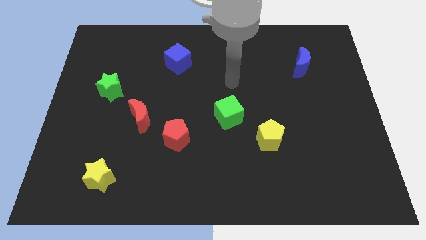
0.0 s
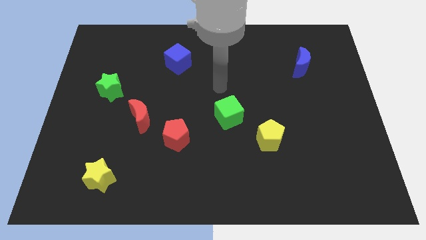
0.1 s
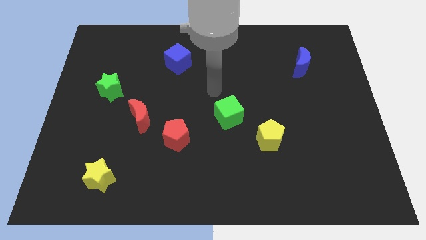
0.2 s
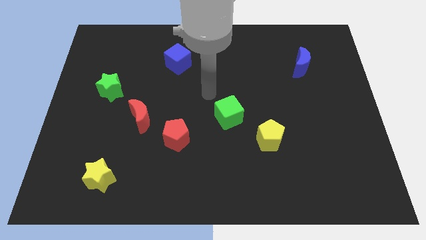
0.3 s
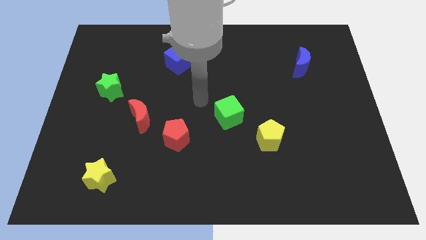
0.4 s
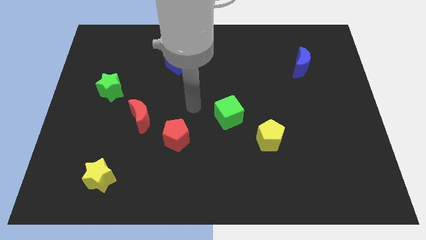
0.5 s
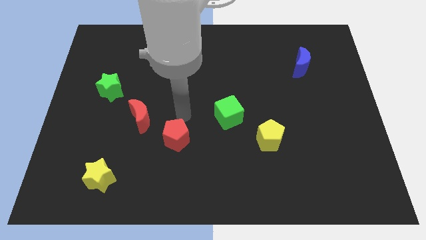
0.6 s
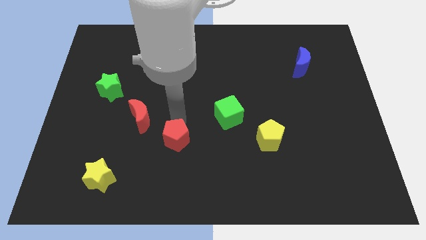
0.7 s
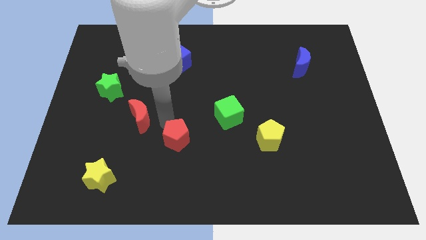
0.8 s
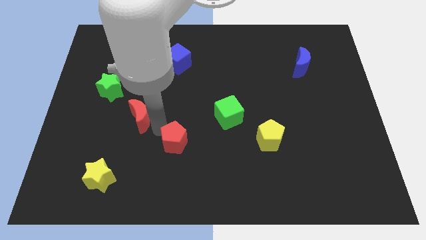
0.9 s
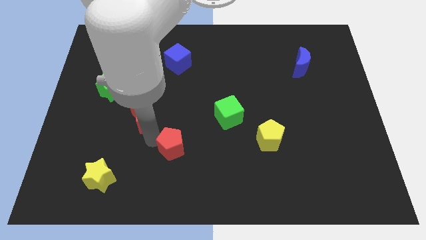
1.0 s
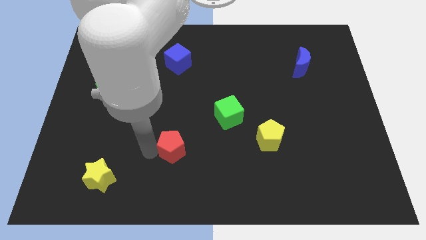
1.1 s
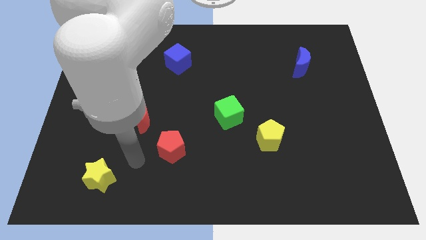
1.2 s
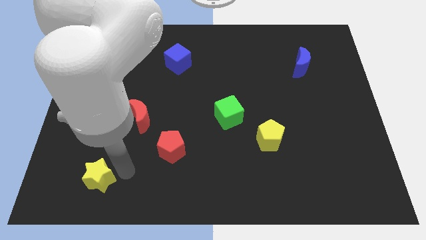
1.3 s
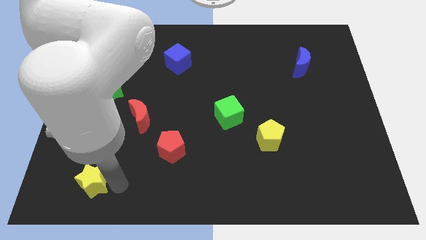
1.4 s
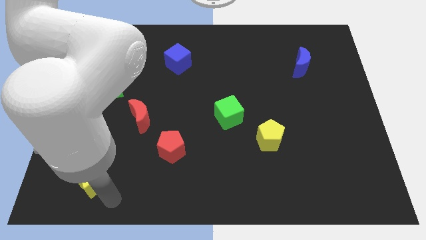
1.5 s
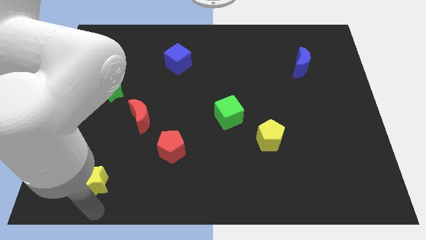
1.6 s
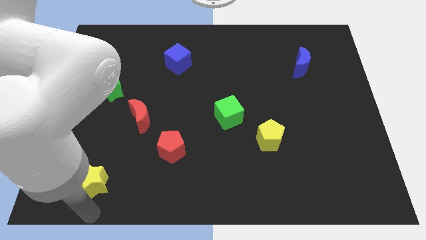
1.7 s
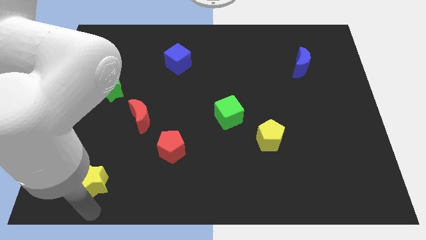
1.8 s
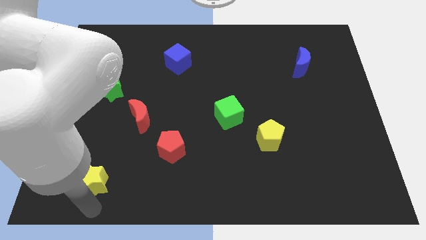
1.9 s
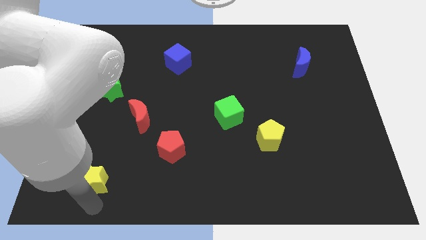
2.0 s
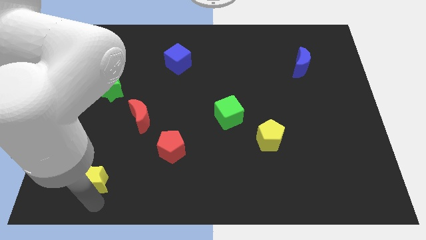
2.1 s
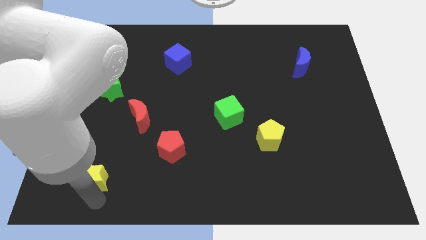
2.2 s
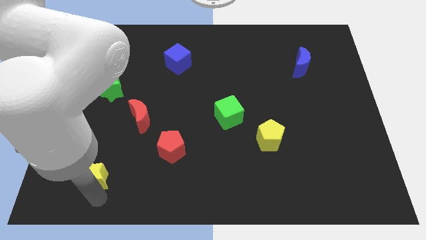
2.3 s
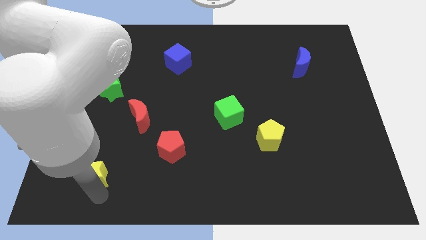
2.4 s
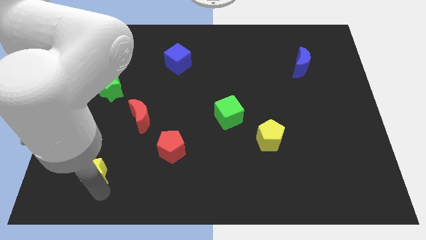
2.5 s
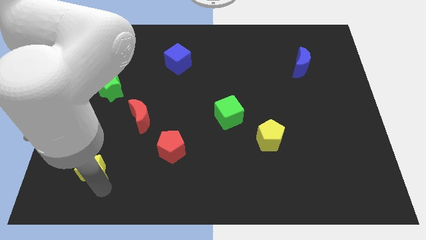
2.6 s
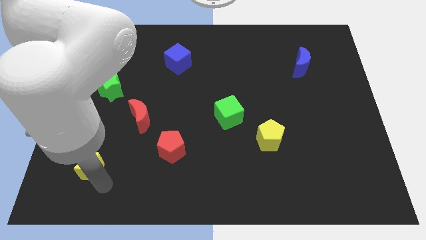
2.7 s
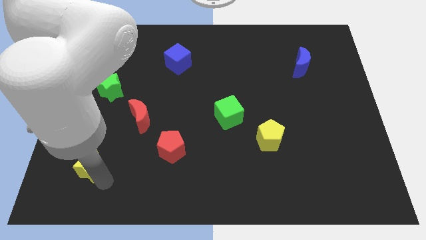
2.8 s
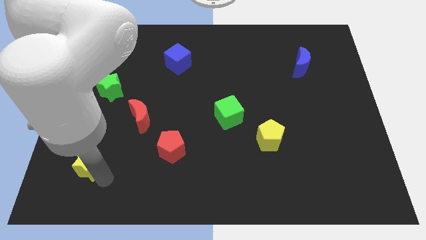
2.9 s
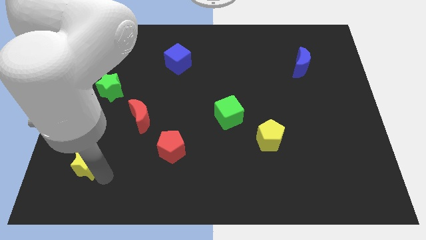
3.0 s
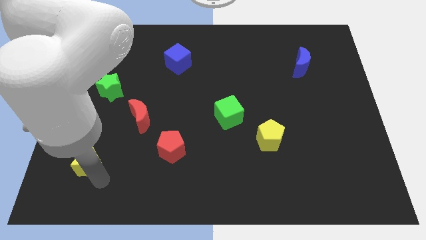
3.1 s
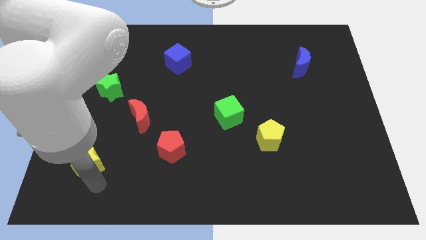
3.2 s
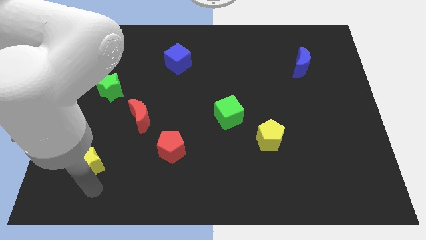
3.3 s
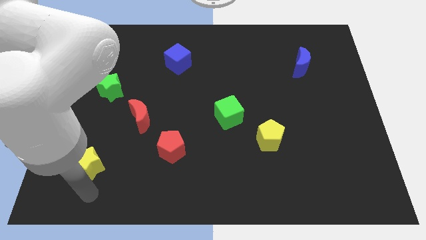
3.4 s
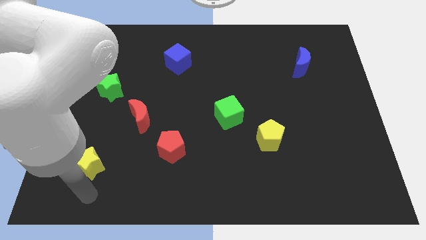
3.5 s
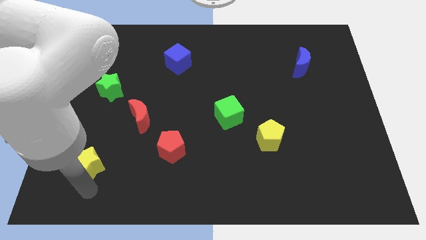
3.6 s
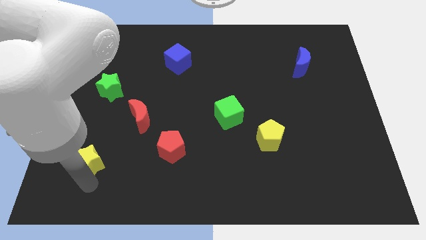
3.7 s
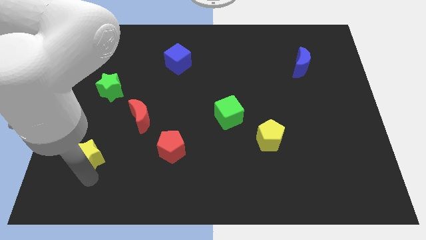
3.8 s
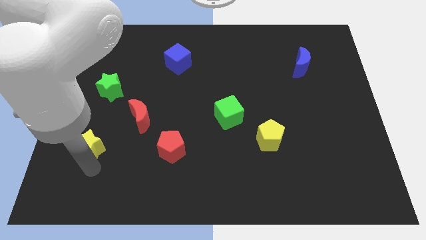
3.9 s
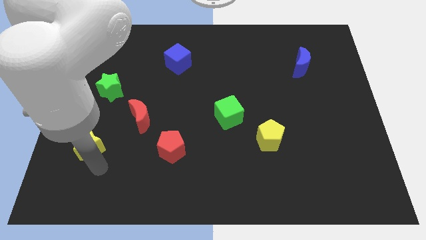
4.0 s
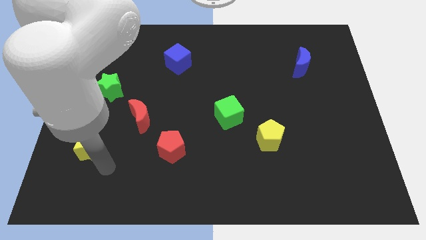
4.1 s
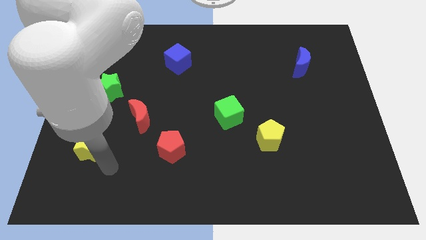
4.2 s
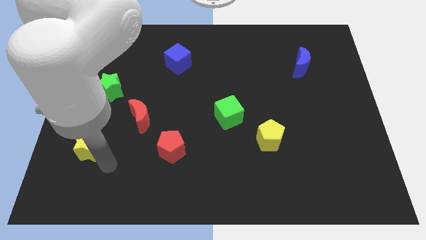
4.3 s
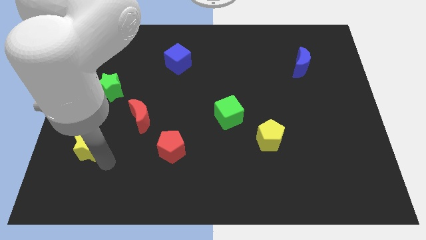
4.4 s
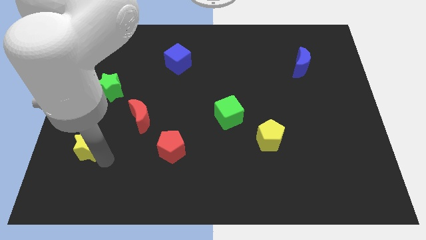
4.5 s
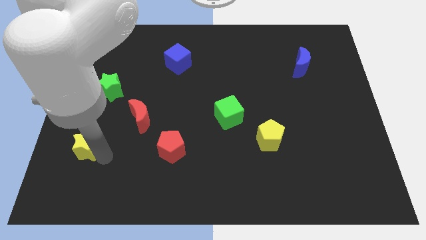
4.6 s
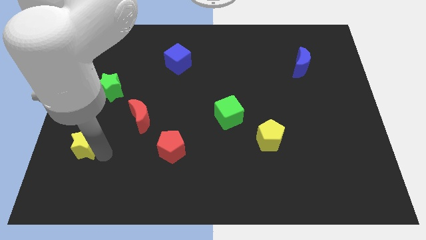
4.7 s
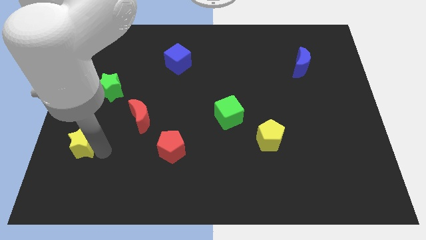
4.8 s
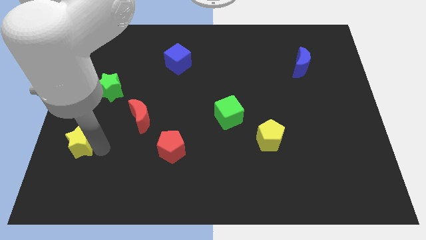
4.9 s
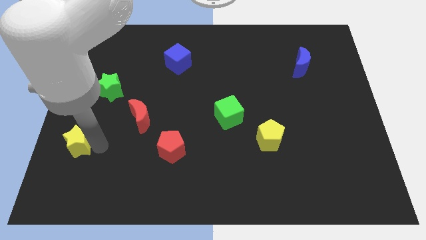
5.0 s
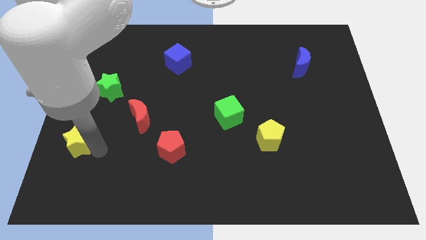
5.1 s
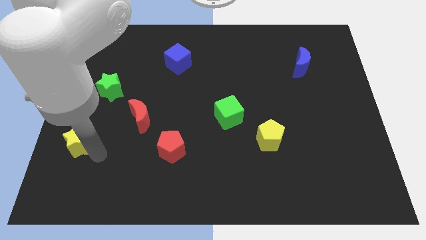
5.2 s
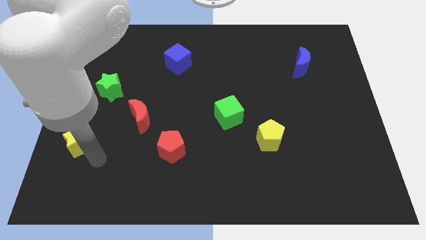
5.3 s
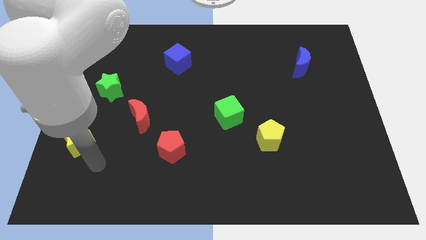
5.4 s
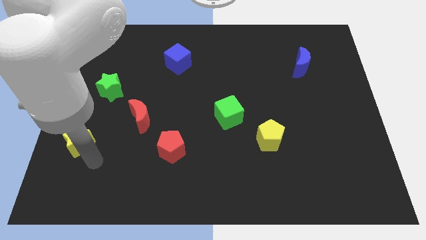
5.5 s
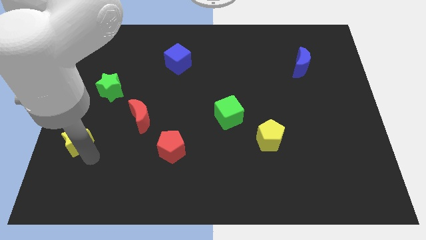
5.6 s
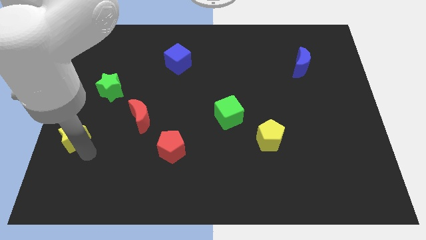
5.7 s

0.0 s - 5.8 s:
move the yellow star to the left side
